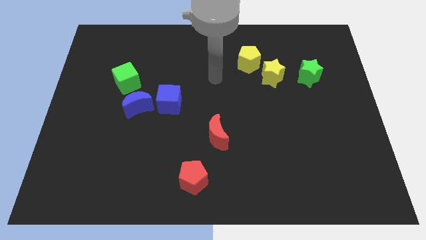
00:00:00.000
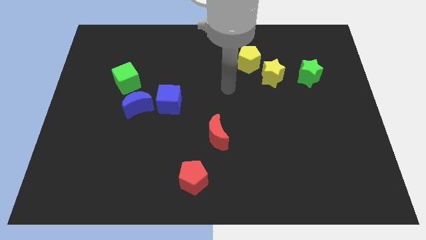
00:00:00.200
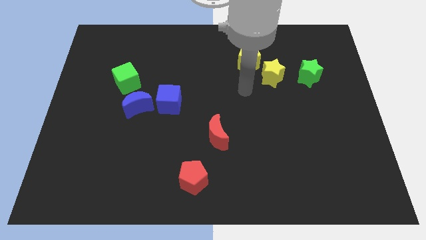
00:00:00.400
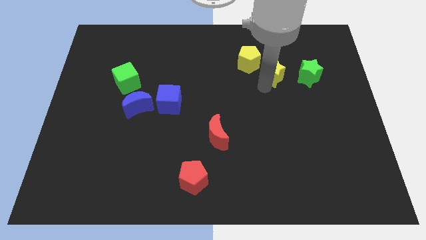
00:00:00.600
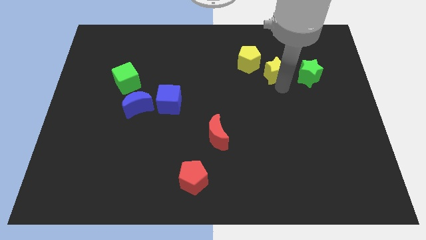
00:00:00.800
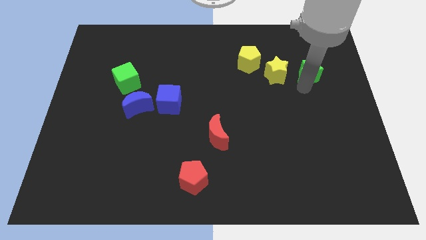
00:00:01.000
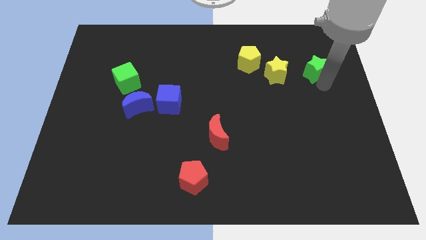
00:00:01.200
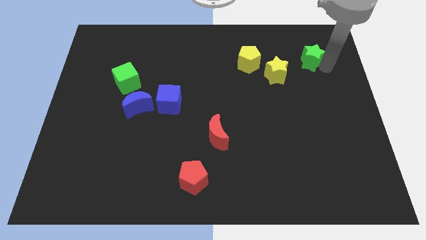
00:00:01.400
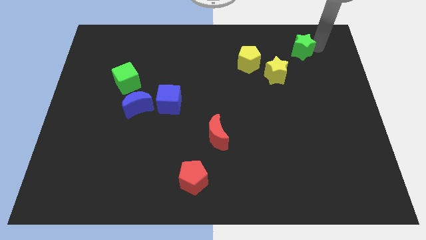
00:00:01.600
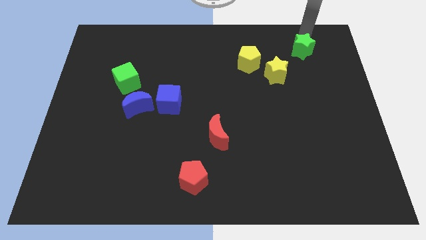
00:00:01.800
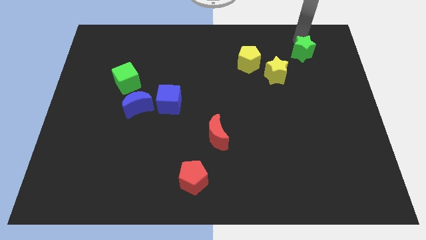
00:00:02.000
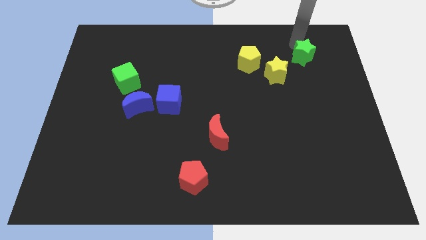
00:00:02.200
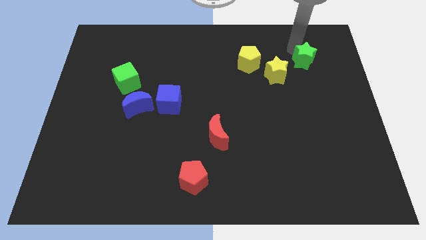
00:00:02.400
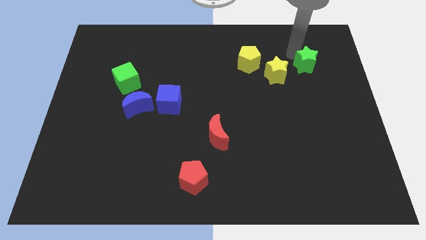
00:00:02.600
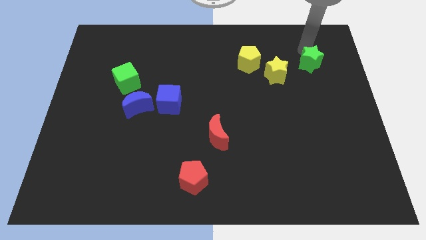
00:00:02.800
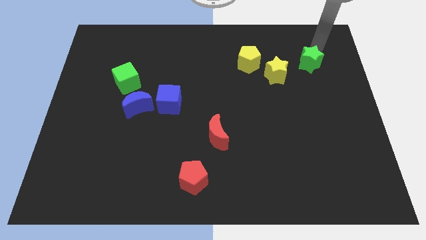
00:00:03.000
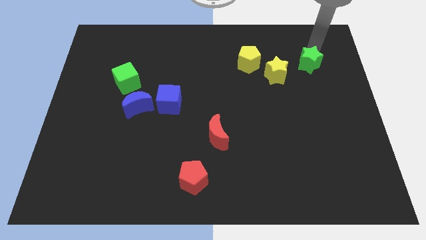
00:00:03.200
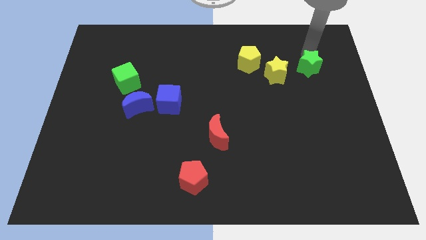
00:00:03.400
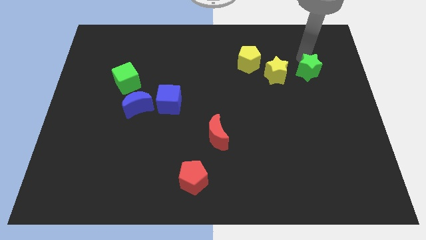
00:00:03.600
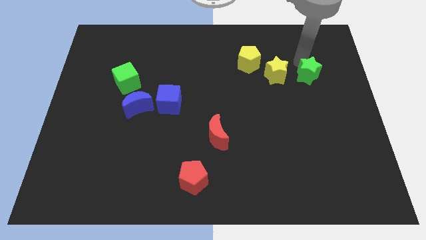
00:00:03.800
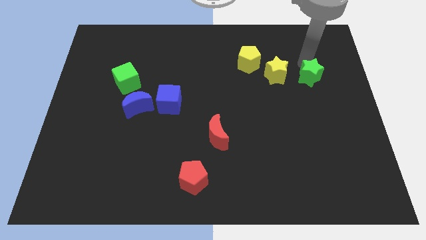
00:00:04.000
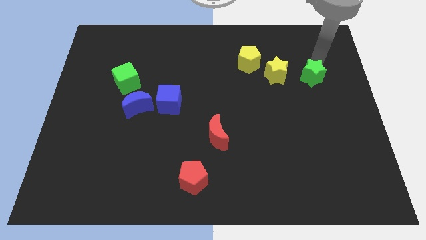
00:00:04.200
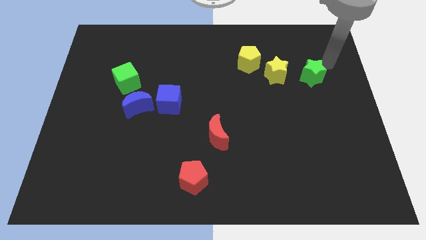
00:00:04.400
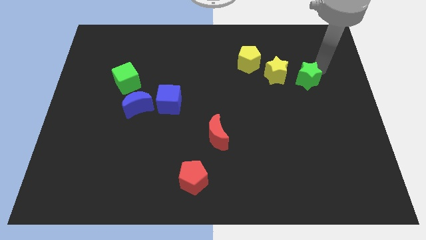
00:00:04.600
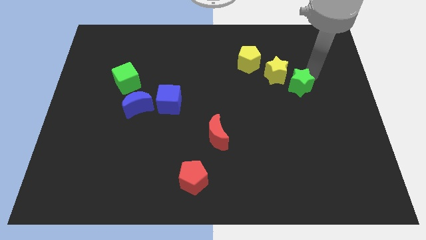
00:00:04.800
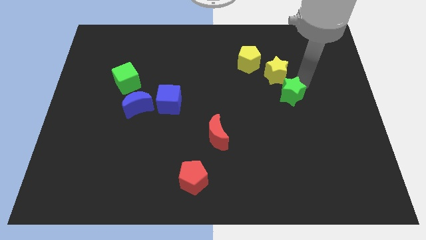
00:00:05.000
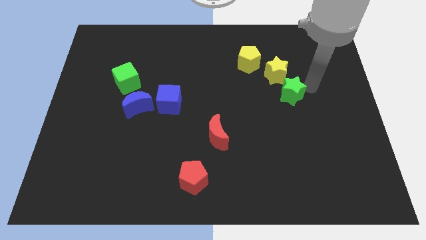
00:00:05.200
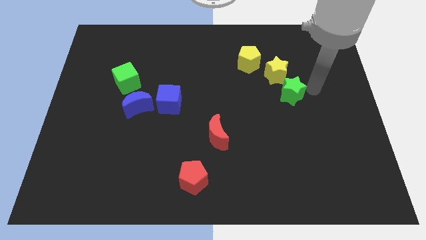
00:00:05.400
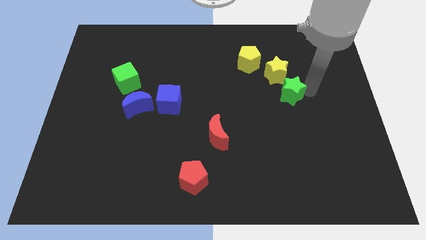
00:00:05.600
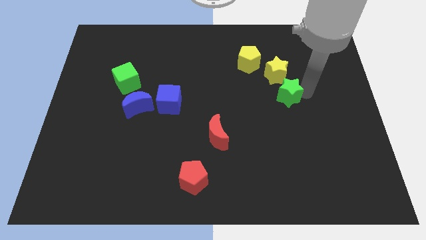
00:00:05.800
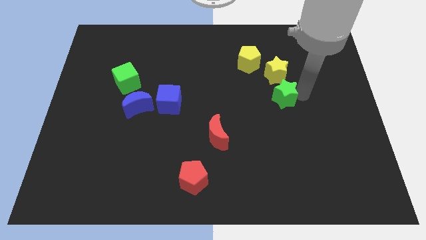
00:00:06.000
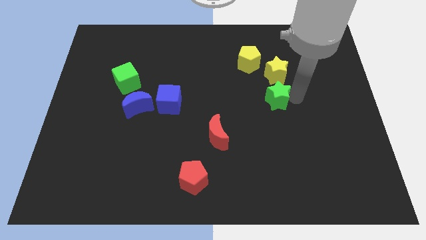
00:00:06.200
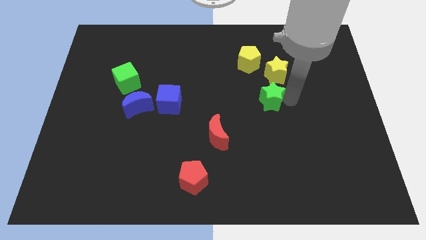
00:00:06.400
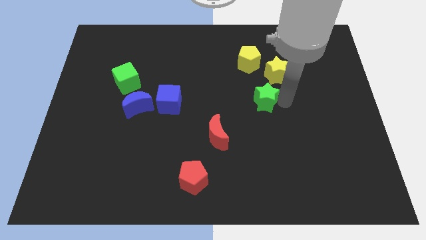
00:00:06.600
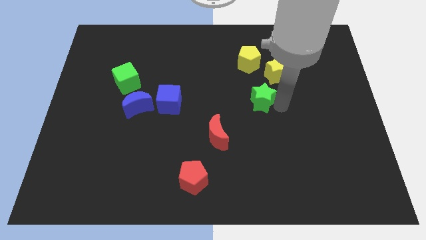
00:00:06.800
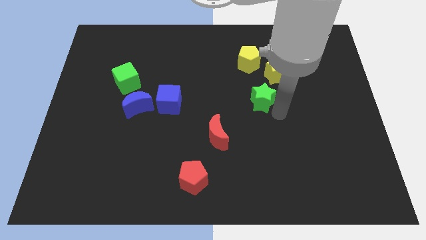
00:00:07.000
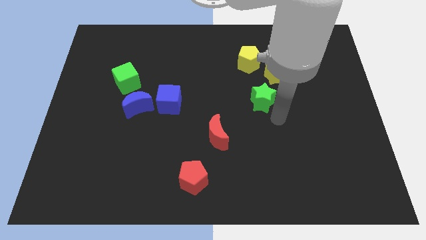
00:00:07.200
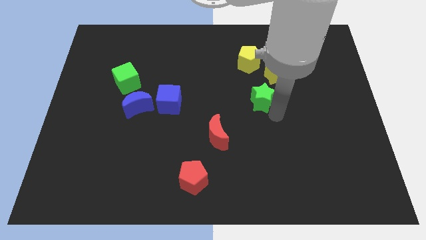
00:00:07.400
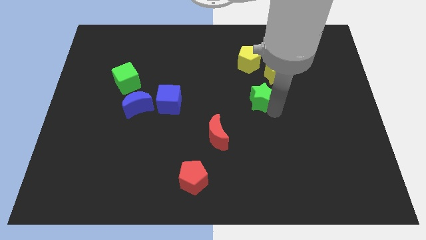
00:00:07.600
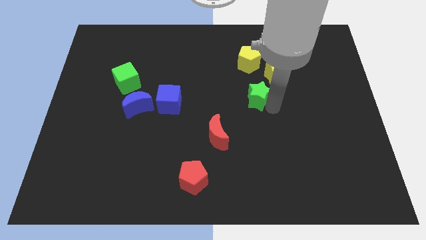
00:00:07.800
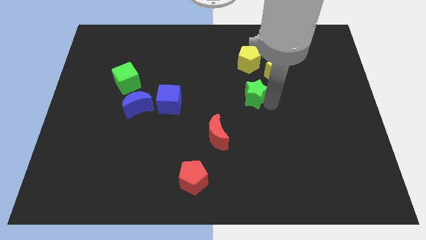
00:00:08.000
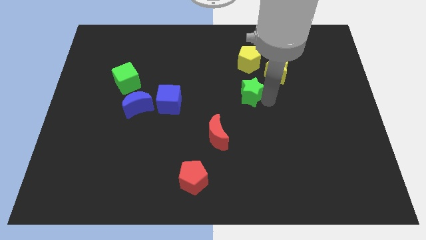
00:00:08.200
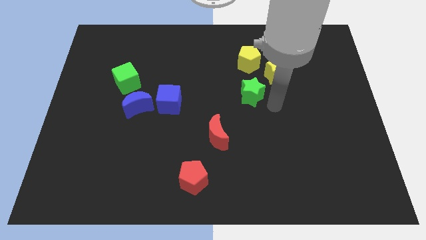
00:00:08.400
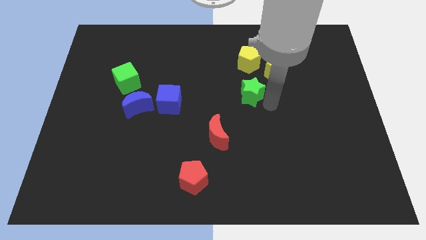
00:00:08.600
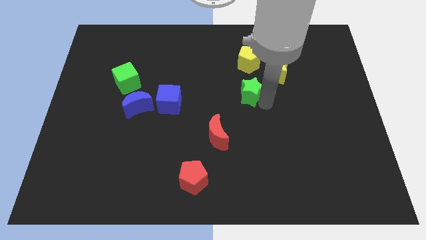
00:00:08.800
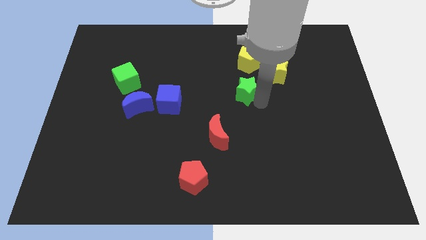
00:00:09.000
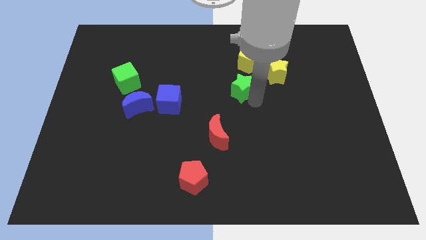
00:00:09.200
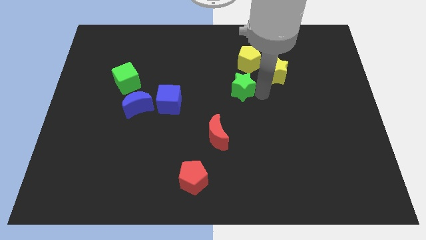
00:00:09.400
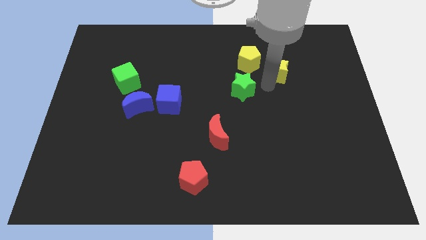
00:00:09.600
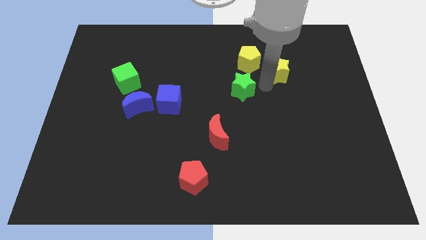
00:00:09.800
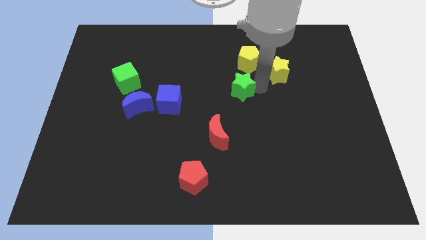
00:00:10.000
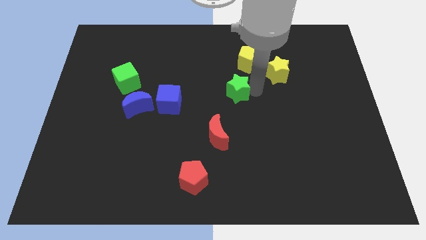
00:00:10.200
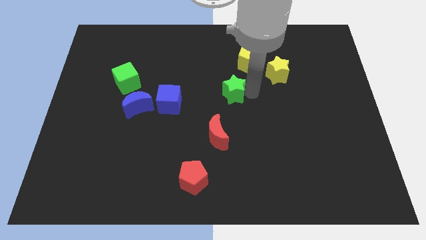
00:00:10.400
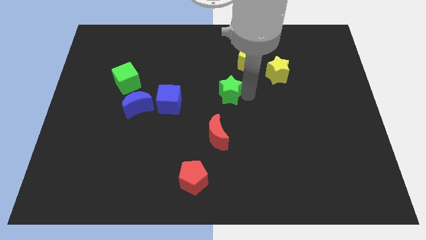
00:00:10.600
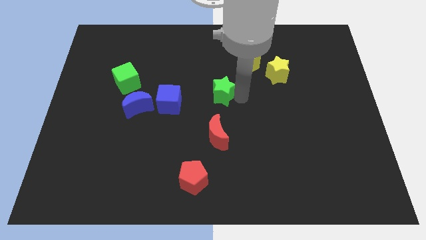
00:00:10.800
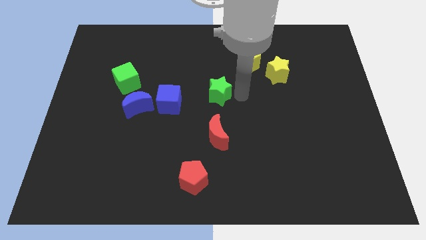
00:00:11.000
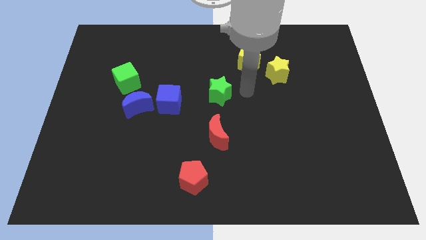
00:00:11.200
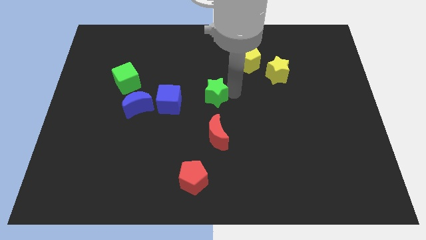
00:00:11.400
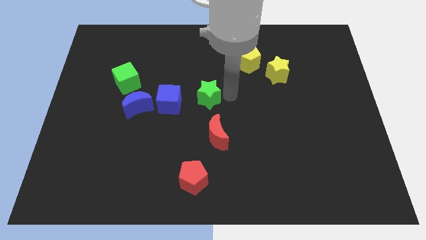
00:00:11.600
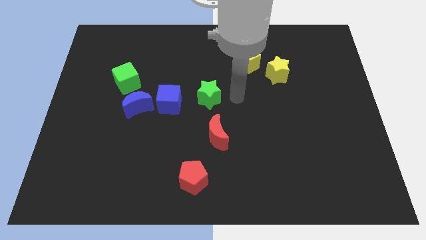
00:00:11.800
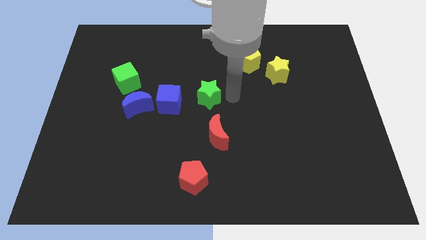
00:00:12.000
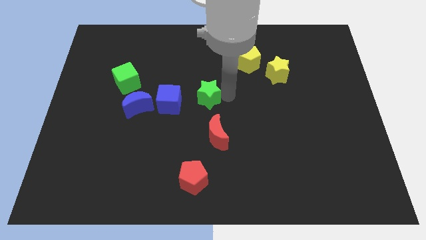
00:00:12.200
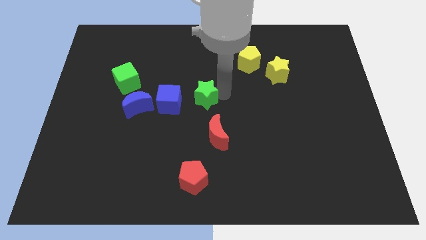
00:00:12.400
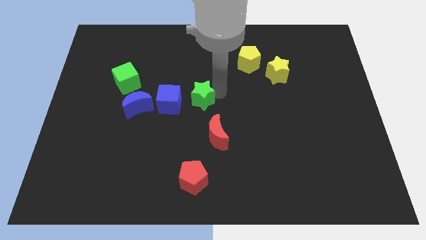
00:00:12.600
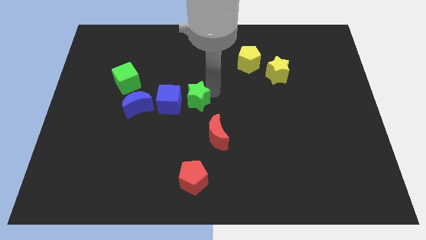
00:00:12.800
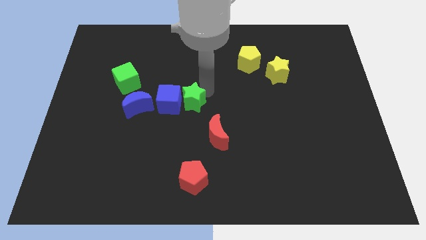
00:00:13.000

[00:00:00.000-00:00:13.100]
move the green star next to the blue cube

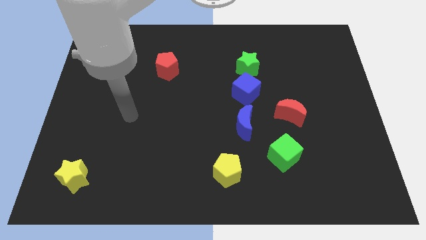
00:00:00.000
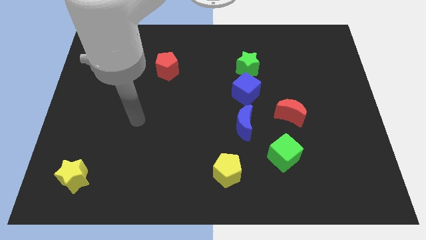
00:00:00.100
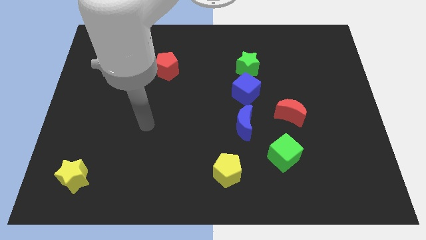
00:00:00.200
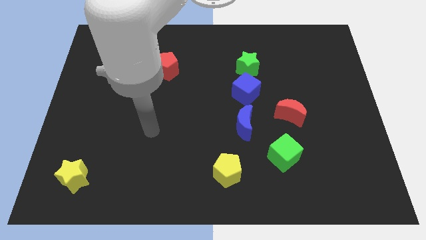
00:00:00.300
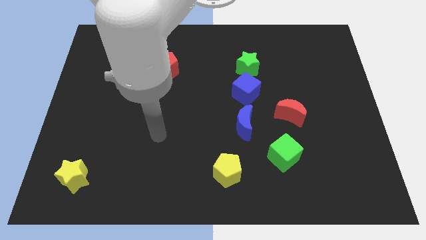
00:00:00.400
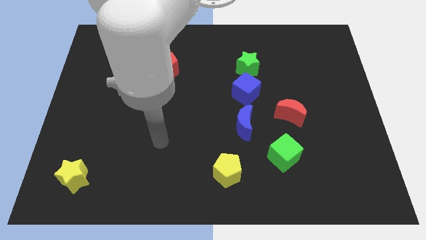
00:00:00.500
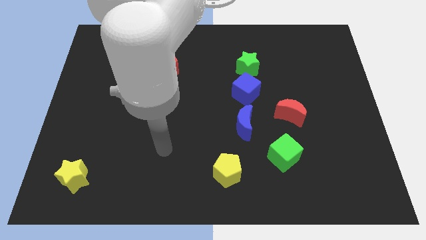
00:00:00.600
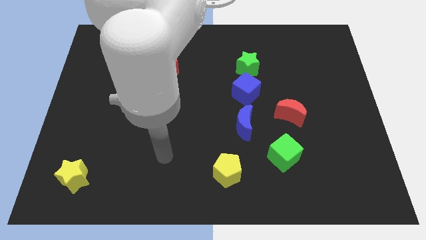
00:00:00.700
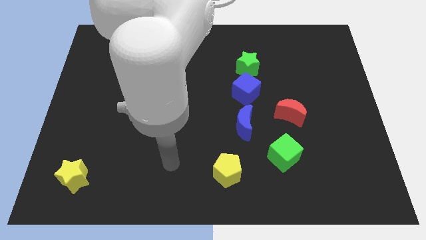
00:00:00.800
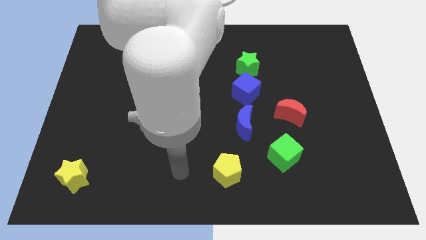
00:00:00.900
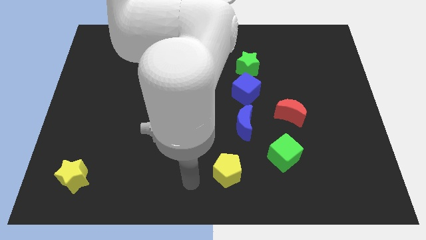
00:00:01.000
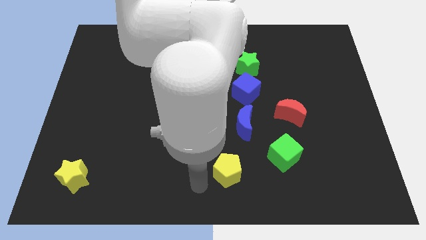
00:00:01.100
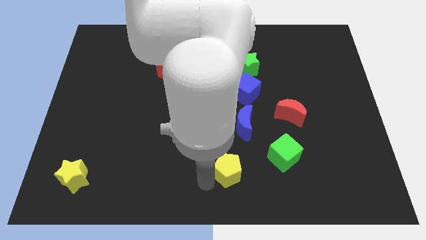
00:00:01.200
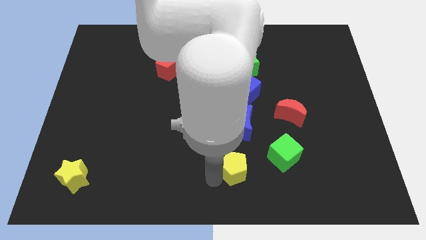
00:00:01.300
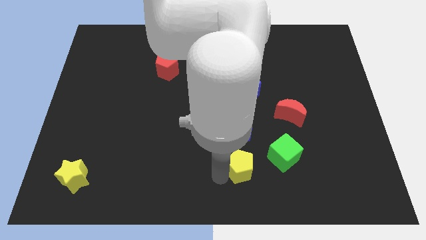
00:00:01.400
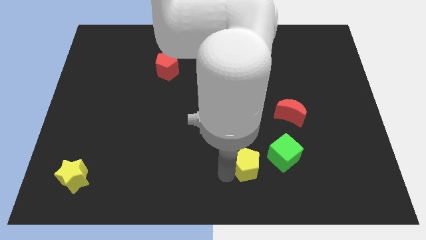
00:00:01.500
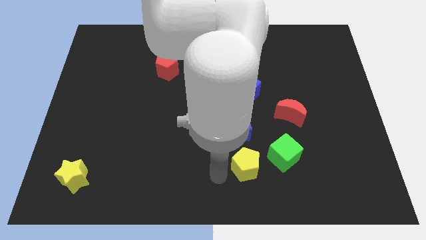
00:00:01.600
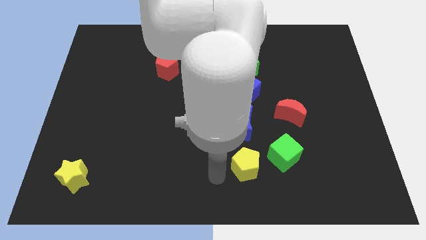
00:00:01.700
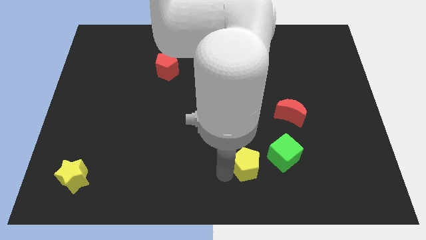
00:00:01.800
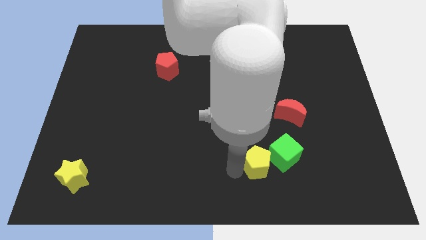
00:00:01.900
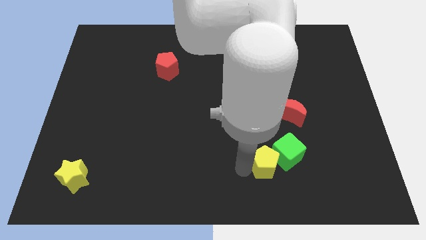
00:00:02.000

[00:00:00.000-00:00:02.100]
move the yellow pentagon to the green cube
